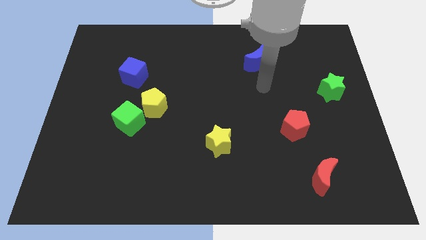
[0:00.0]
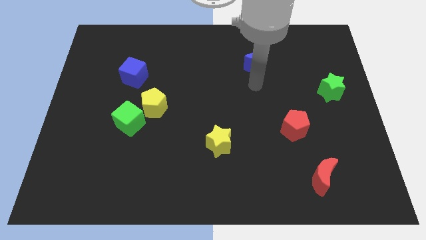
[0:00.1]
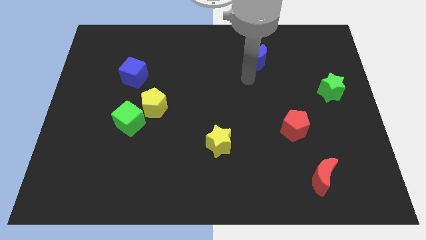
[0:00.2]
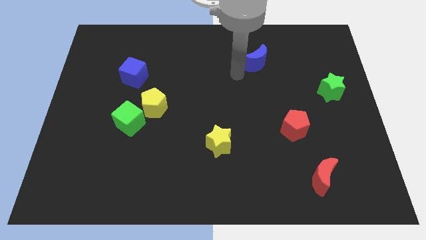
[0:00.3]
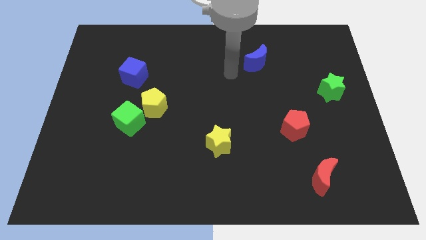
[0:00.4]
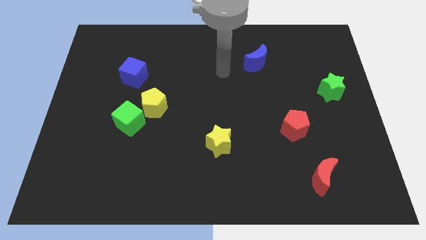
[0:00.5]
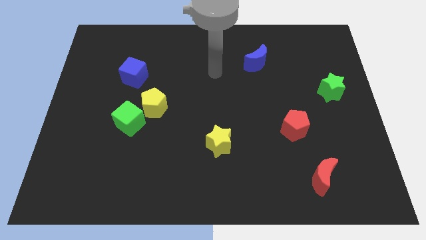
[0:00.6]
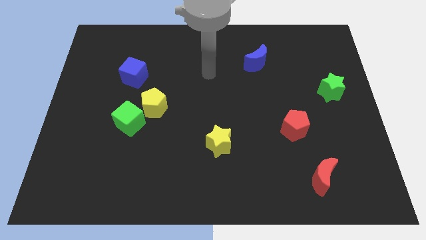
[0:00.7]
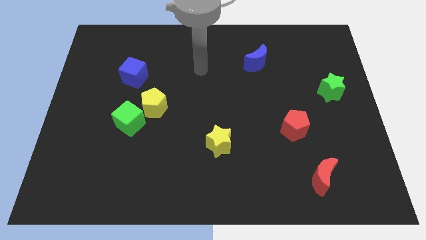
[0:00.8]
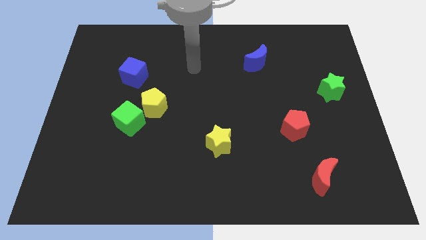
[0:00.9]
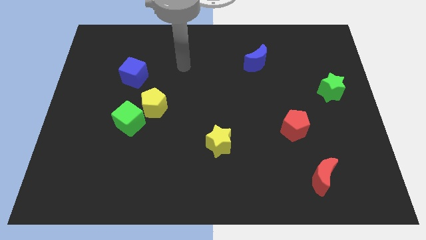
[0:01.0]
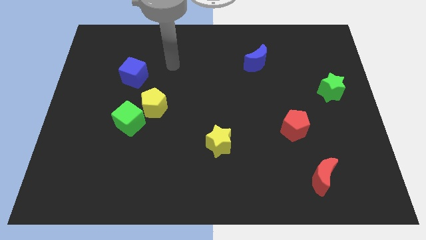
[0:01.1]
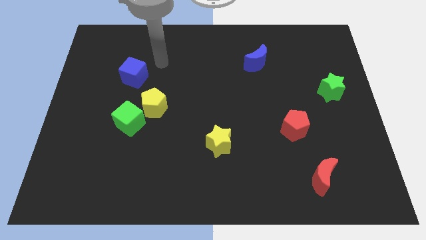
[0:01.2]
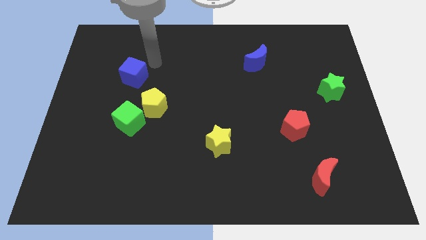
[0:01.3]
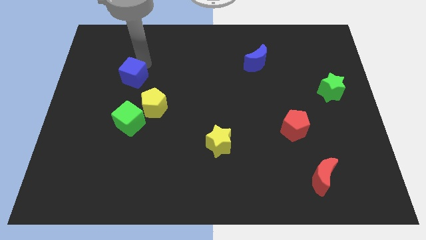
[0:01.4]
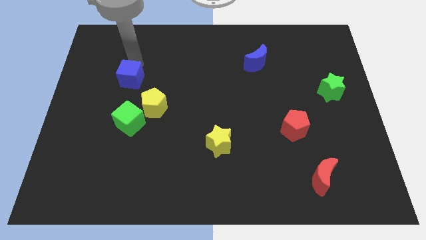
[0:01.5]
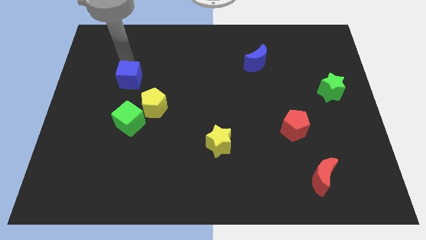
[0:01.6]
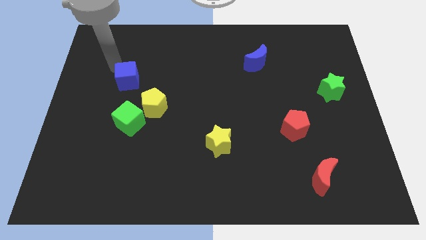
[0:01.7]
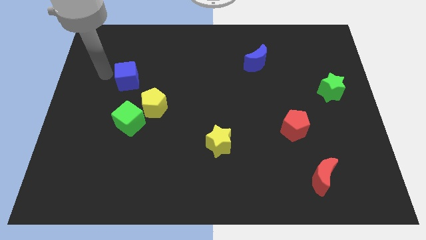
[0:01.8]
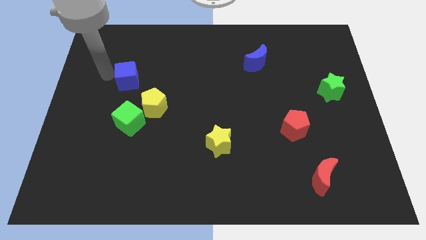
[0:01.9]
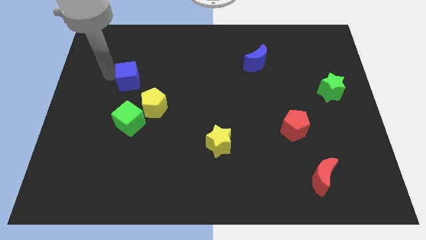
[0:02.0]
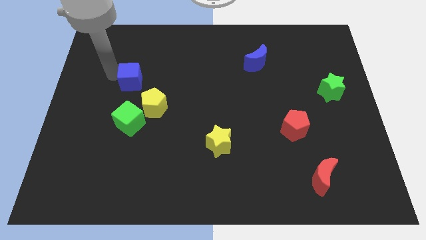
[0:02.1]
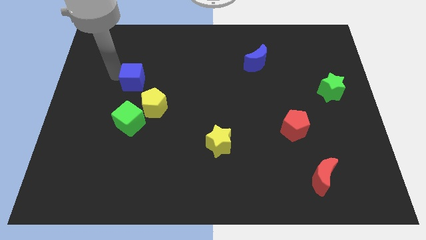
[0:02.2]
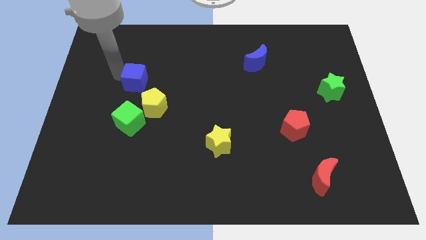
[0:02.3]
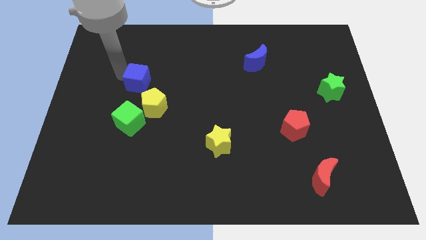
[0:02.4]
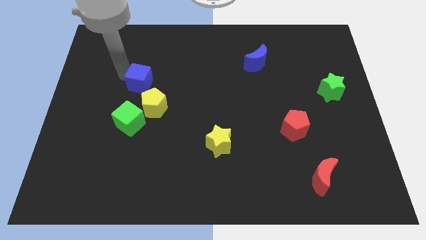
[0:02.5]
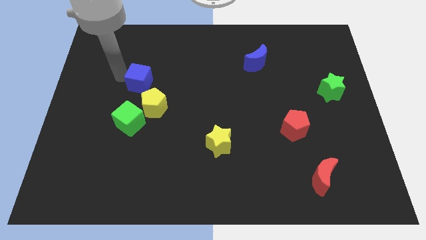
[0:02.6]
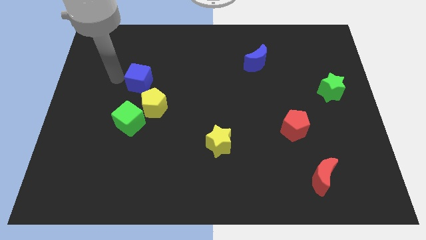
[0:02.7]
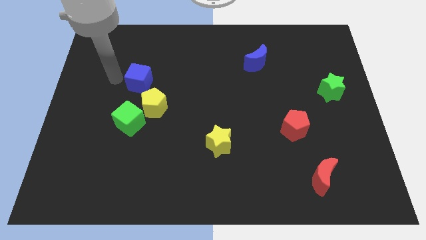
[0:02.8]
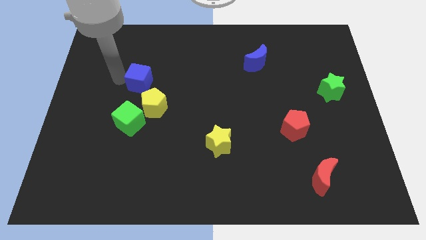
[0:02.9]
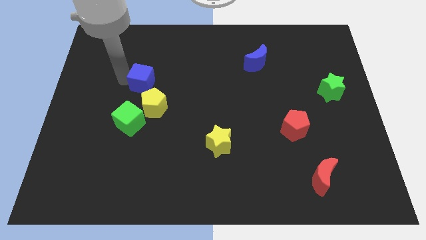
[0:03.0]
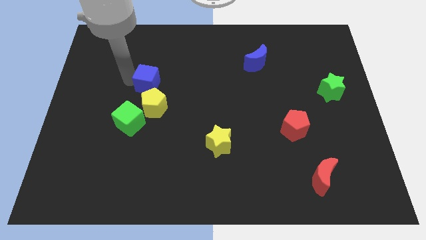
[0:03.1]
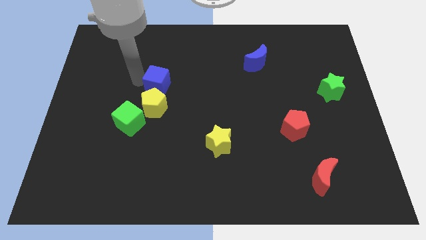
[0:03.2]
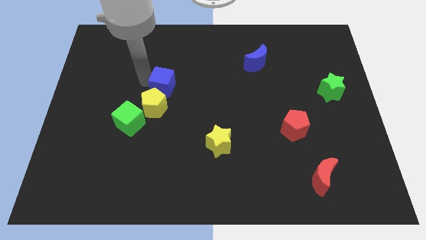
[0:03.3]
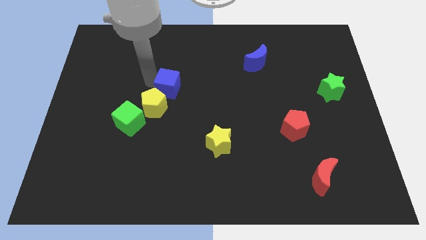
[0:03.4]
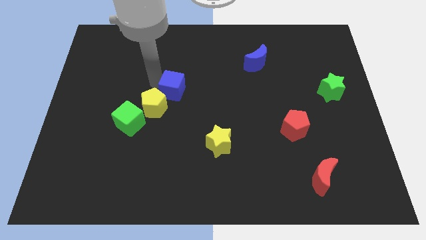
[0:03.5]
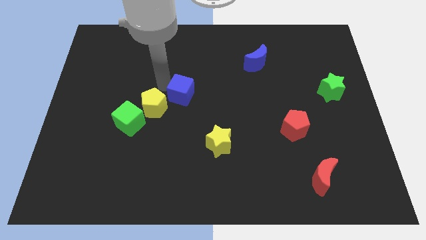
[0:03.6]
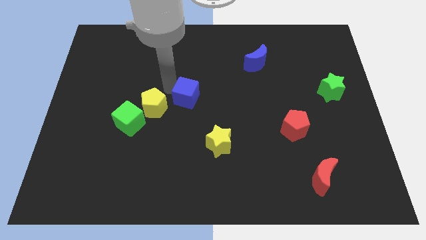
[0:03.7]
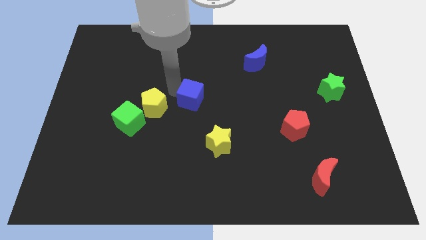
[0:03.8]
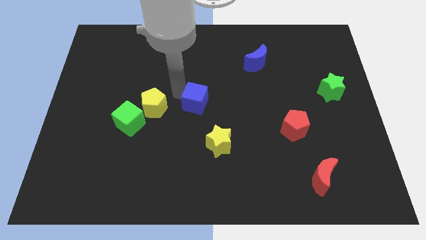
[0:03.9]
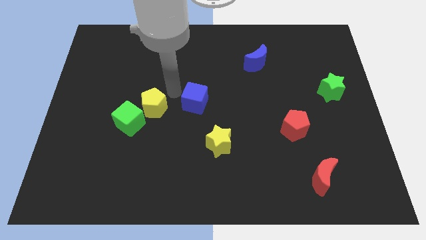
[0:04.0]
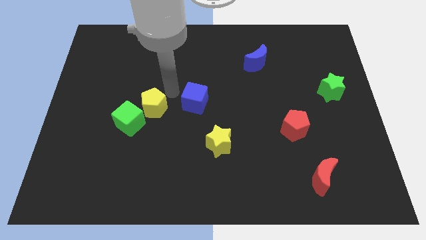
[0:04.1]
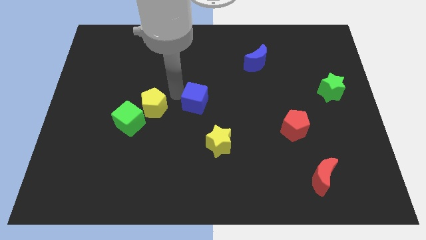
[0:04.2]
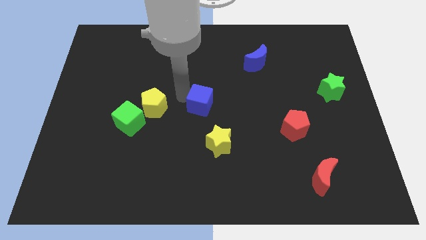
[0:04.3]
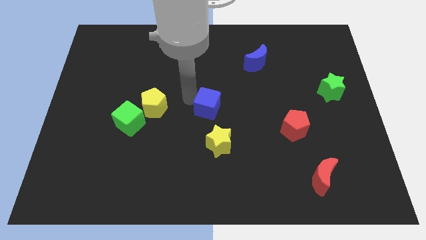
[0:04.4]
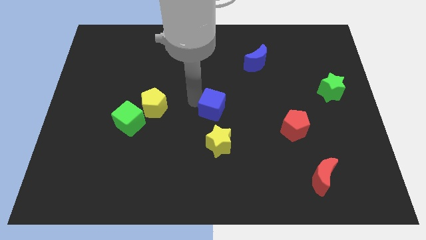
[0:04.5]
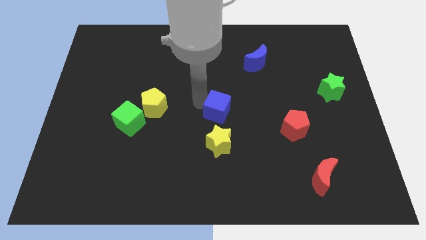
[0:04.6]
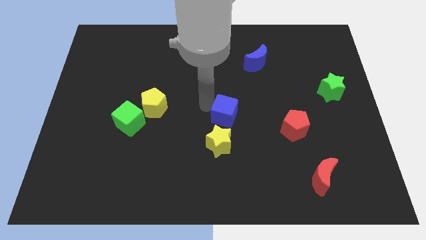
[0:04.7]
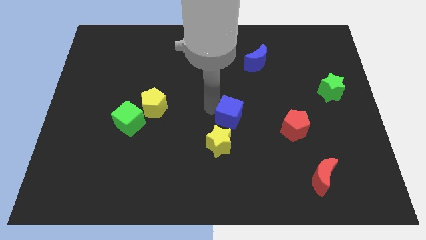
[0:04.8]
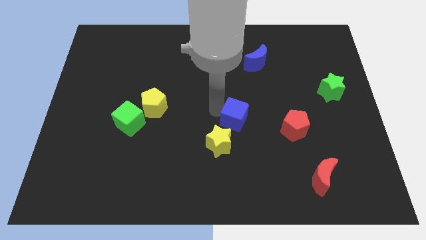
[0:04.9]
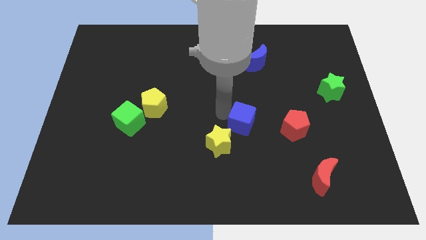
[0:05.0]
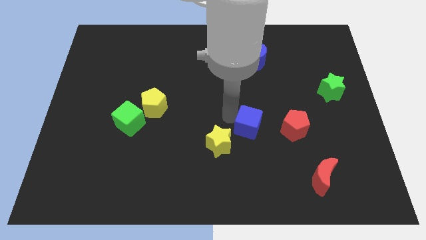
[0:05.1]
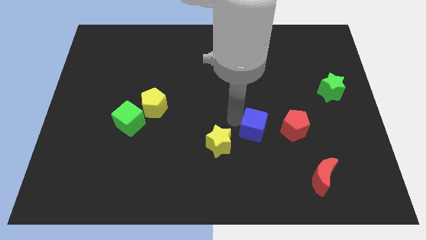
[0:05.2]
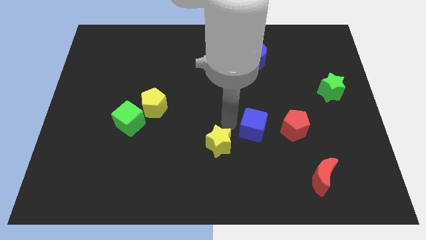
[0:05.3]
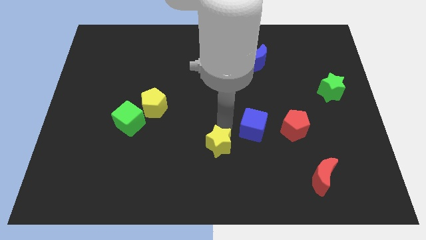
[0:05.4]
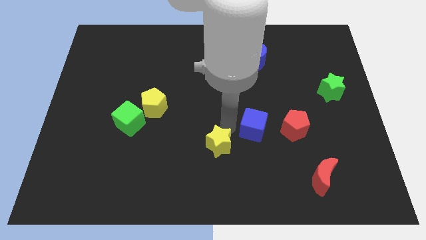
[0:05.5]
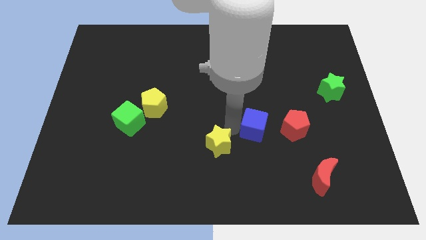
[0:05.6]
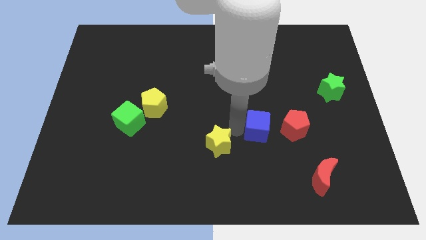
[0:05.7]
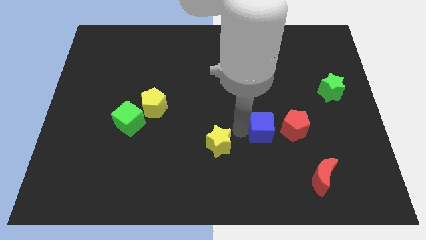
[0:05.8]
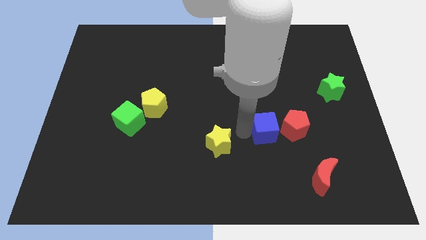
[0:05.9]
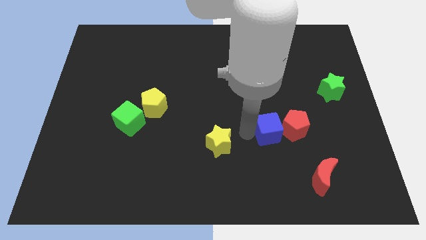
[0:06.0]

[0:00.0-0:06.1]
slide the blue cube towards the red pentagon
